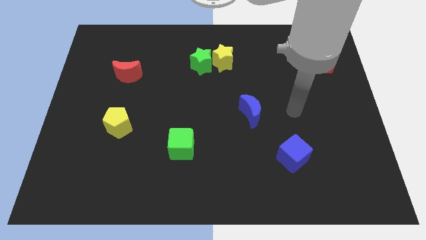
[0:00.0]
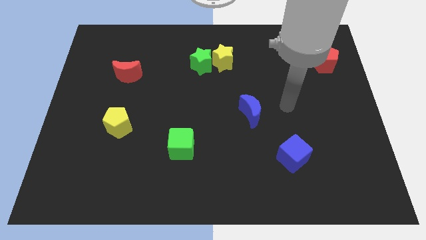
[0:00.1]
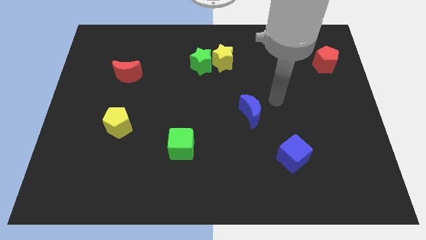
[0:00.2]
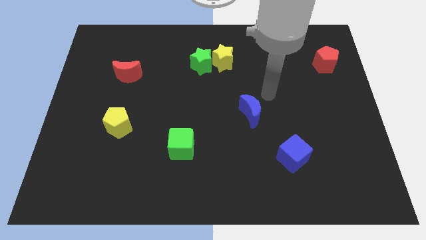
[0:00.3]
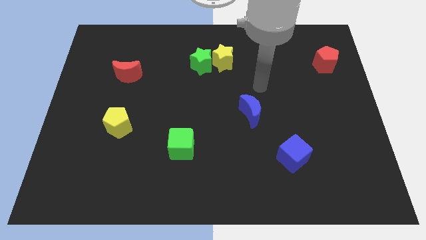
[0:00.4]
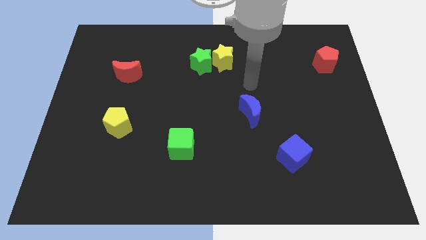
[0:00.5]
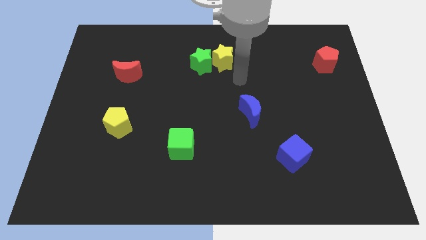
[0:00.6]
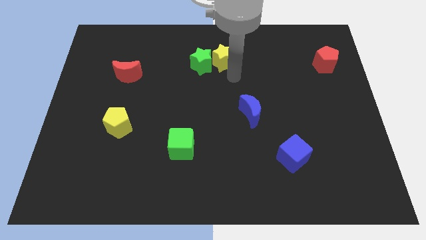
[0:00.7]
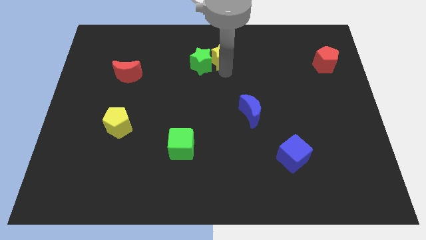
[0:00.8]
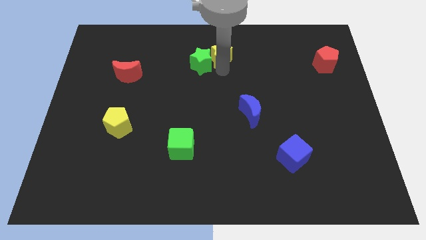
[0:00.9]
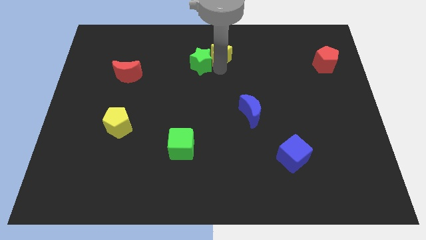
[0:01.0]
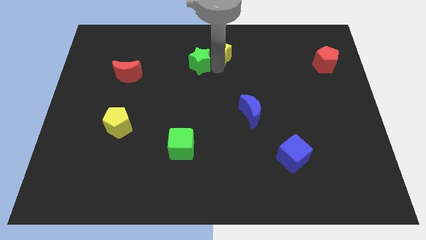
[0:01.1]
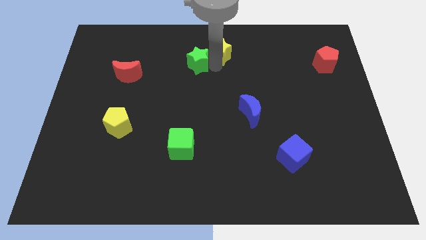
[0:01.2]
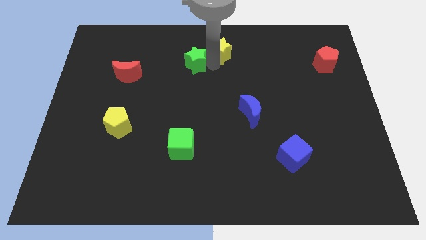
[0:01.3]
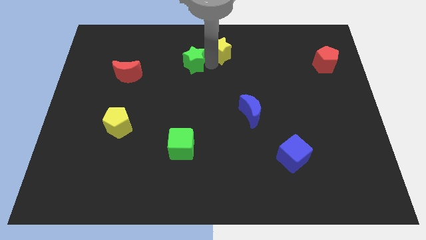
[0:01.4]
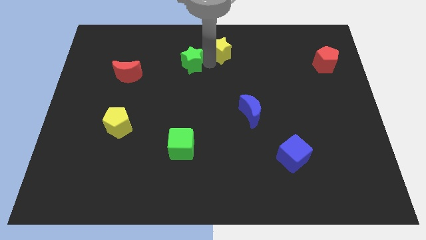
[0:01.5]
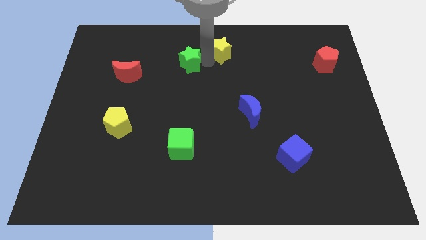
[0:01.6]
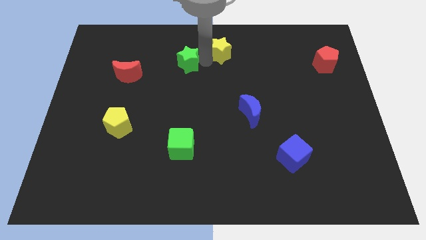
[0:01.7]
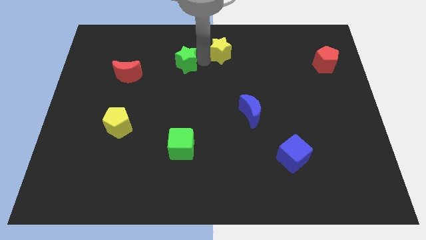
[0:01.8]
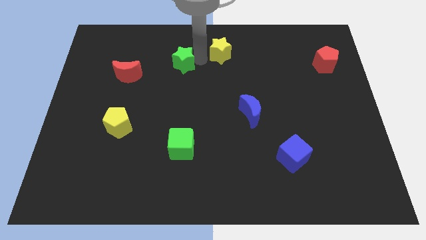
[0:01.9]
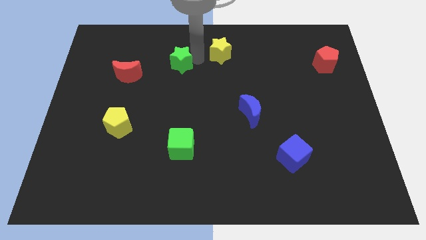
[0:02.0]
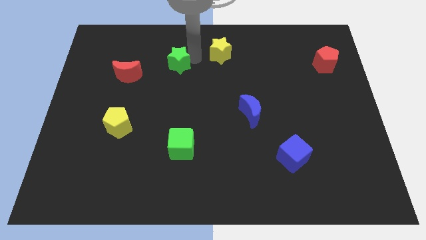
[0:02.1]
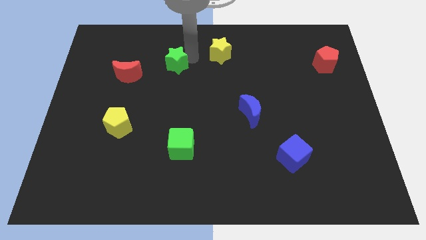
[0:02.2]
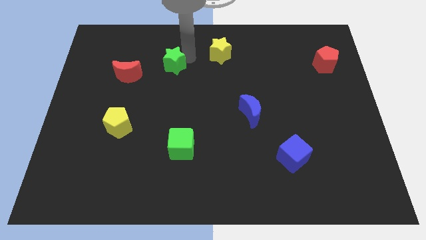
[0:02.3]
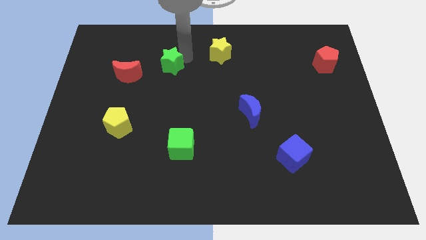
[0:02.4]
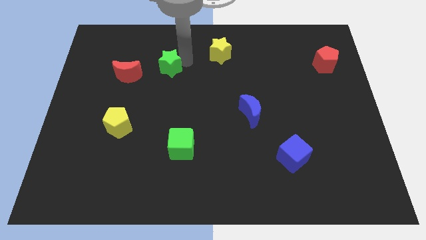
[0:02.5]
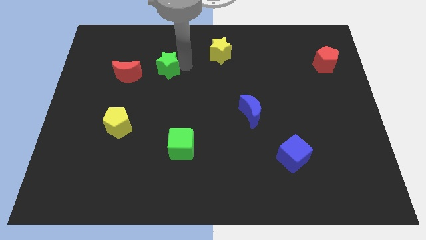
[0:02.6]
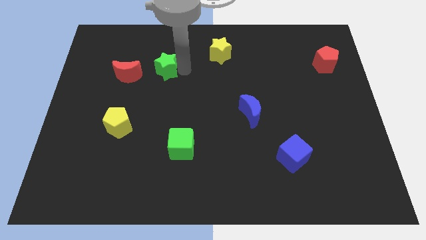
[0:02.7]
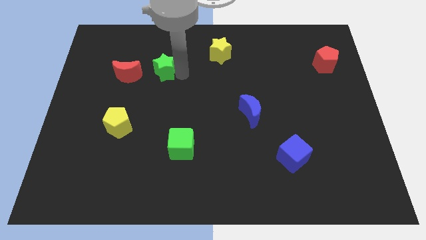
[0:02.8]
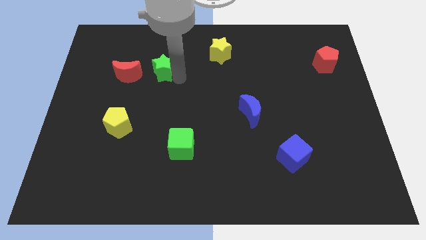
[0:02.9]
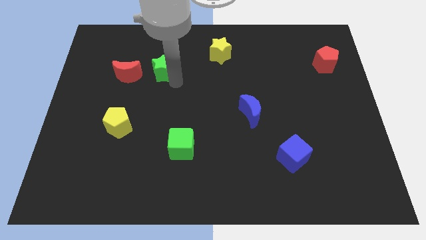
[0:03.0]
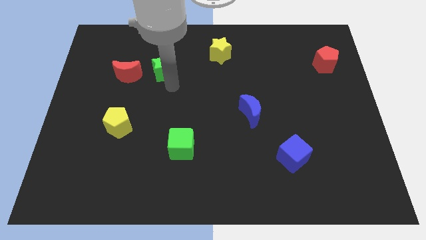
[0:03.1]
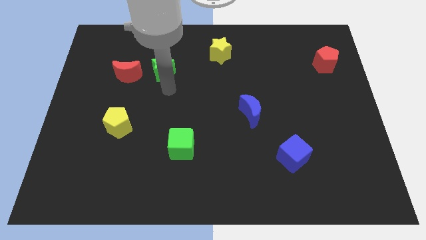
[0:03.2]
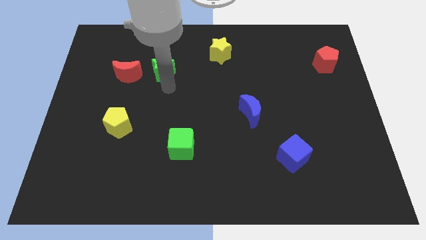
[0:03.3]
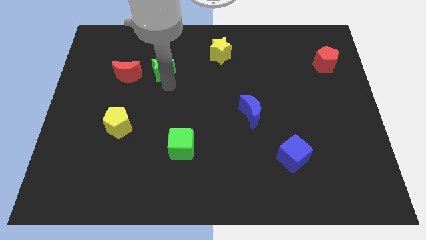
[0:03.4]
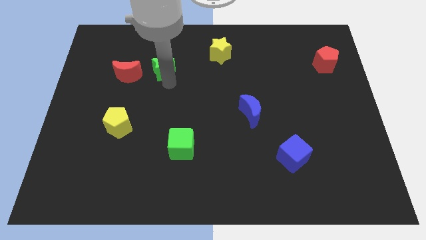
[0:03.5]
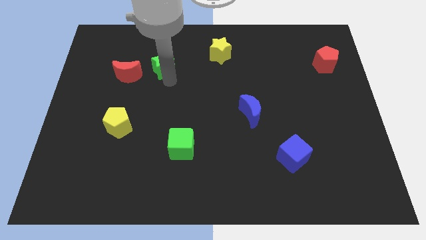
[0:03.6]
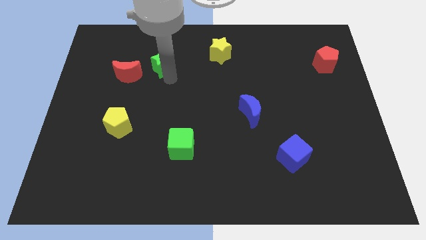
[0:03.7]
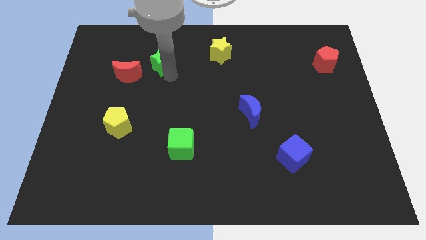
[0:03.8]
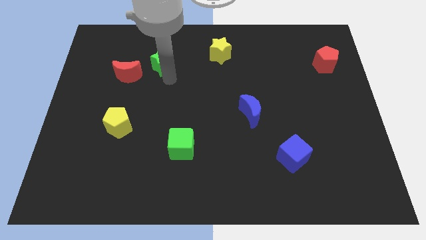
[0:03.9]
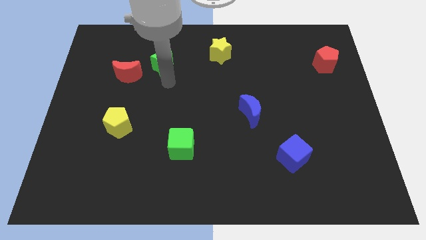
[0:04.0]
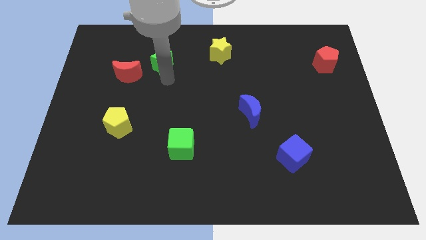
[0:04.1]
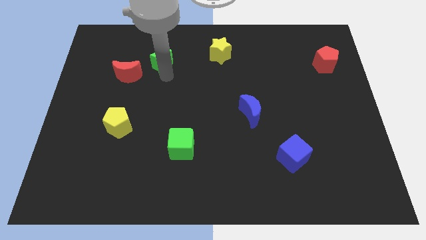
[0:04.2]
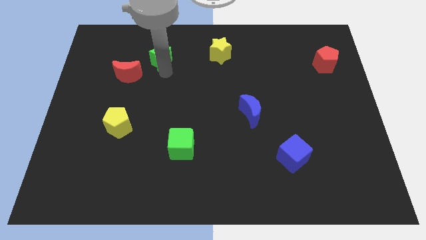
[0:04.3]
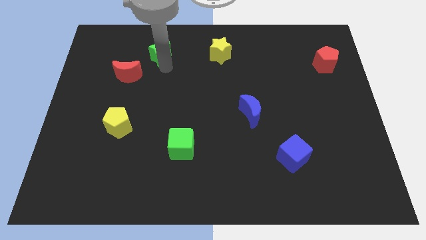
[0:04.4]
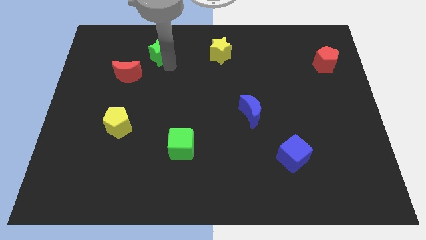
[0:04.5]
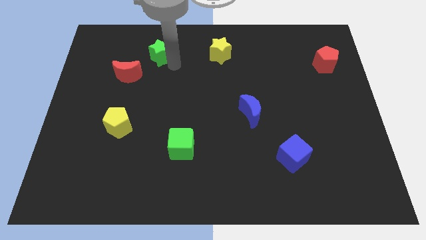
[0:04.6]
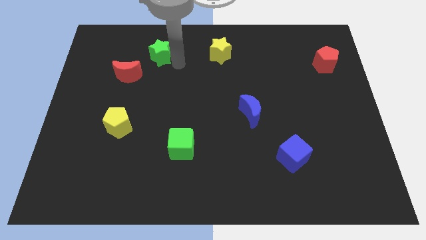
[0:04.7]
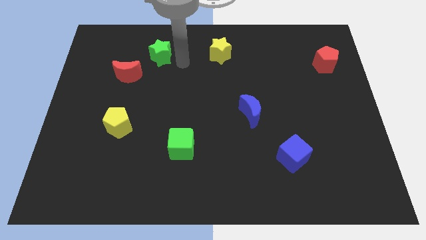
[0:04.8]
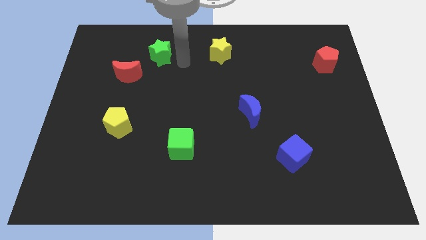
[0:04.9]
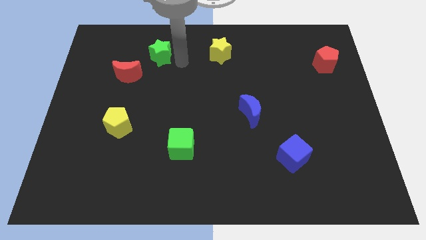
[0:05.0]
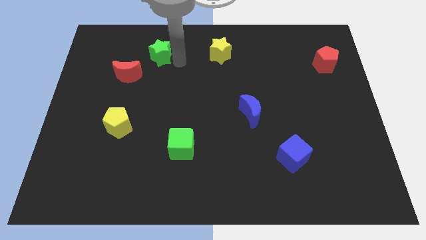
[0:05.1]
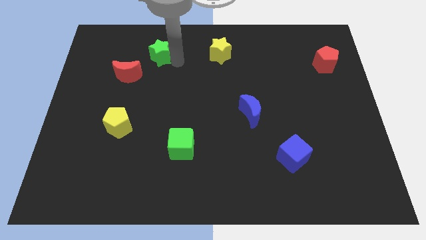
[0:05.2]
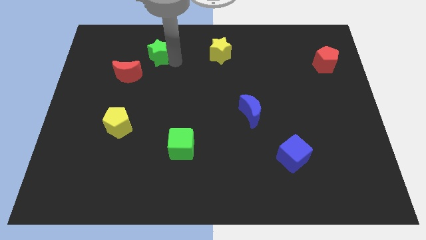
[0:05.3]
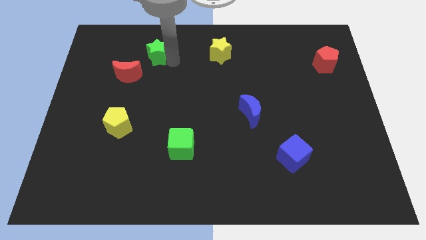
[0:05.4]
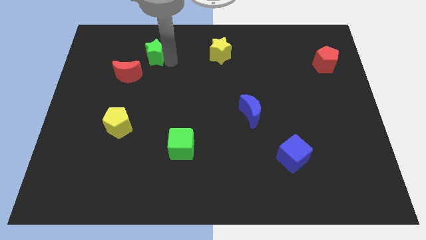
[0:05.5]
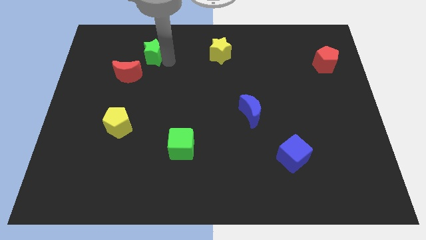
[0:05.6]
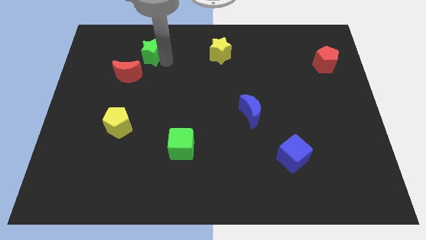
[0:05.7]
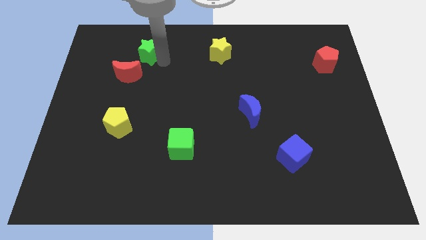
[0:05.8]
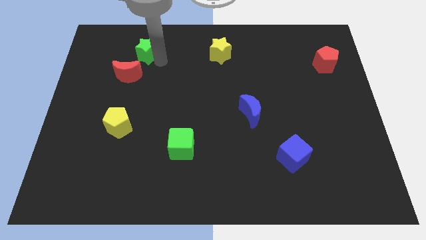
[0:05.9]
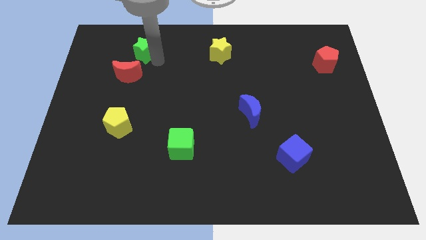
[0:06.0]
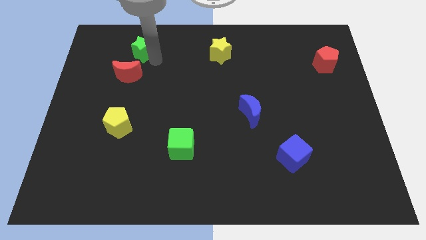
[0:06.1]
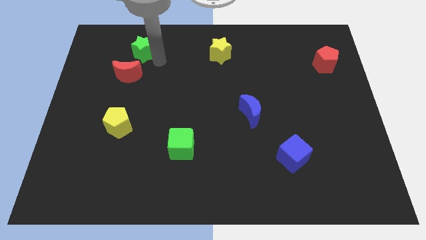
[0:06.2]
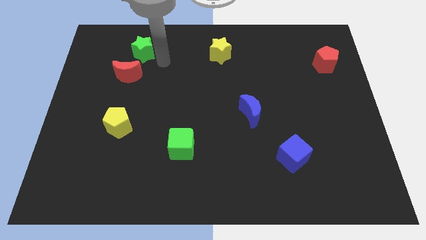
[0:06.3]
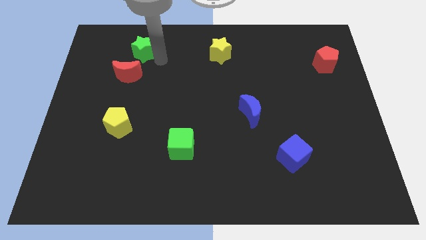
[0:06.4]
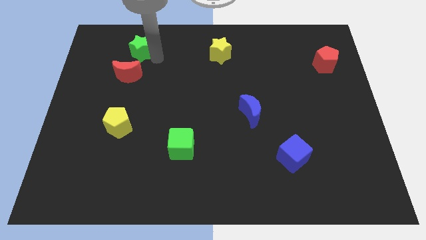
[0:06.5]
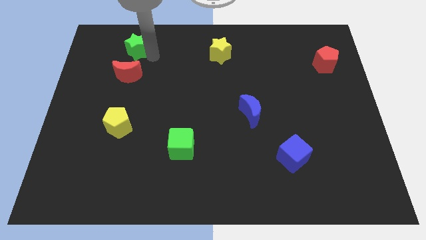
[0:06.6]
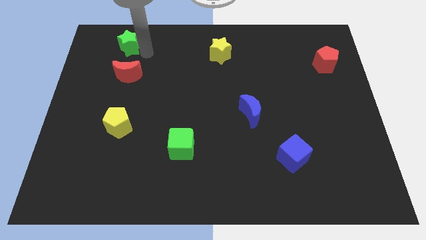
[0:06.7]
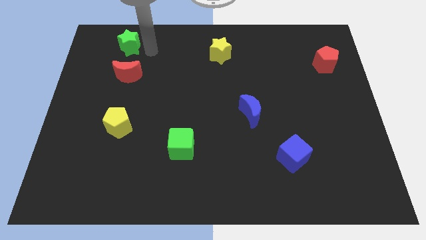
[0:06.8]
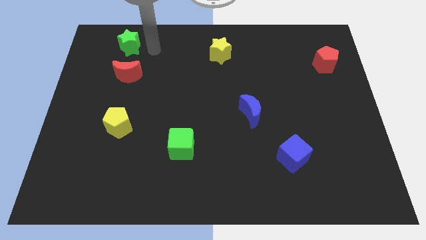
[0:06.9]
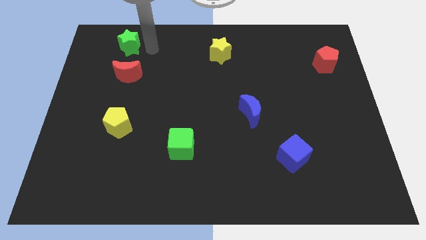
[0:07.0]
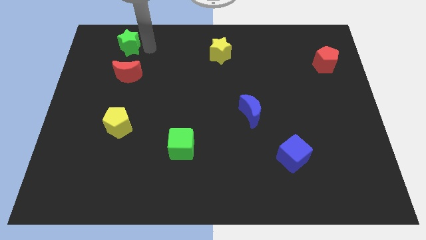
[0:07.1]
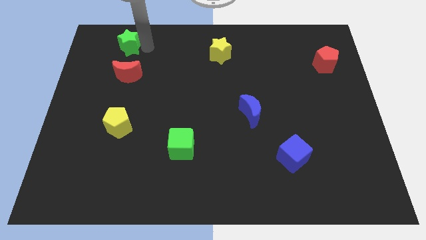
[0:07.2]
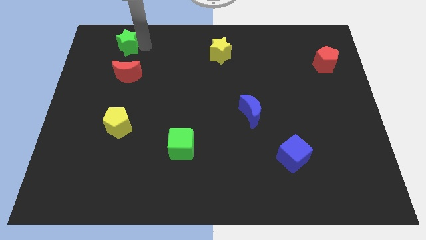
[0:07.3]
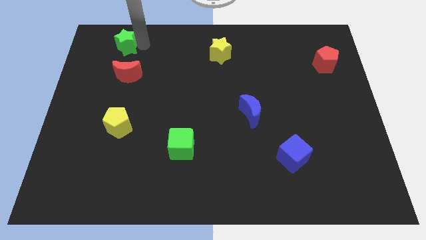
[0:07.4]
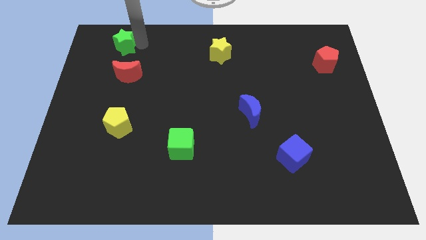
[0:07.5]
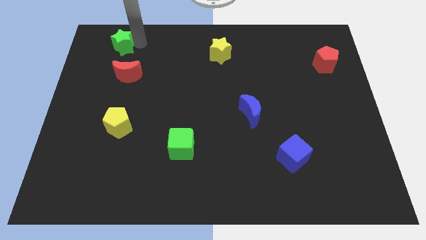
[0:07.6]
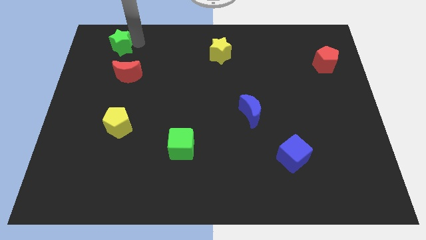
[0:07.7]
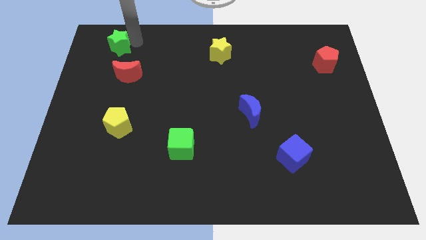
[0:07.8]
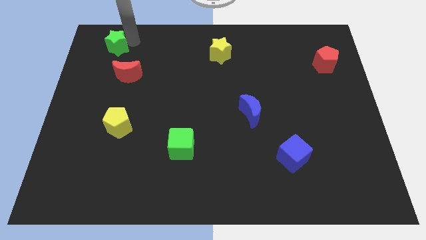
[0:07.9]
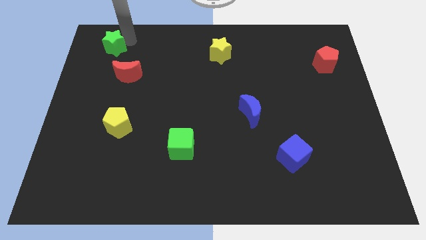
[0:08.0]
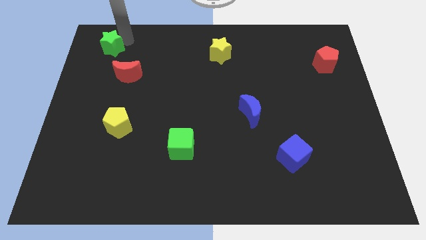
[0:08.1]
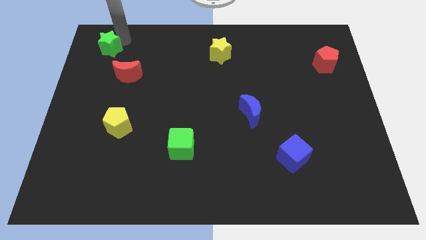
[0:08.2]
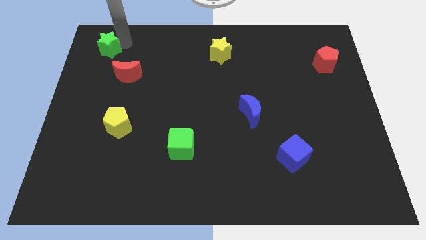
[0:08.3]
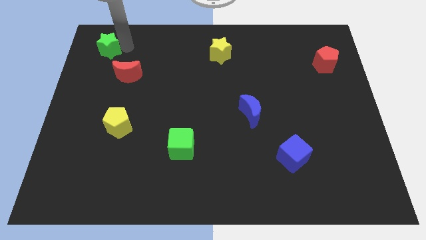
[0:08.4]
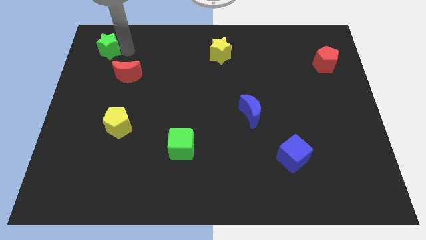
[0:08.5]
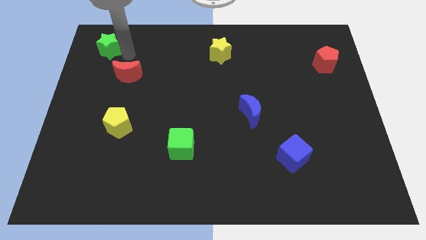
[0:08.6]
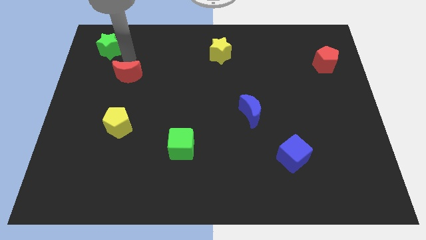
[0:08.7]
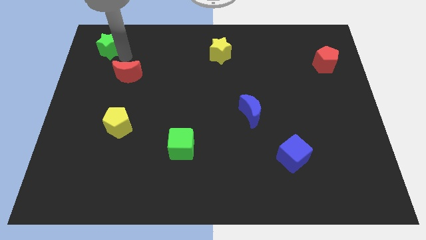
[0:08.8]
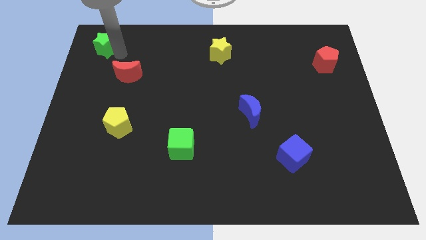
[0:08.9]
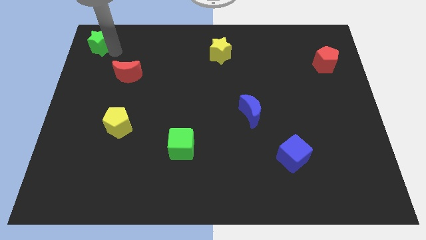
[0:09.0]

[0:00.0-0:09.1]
slide the green star to the upper left corner
